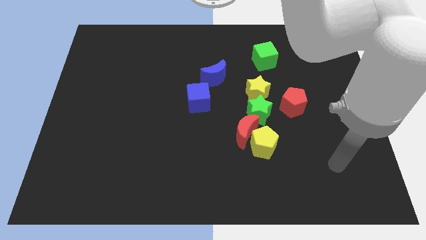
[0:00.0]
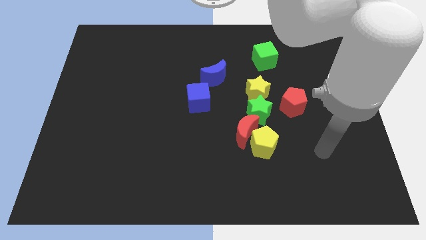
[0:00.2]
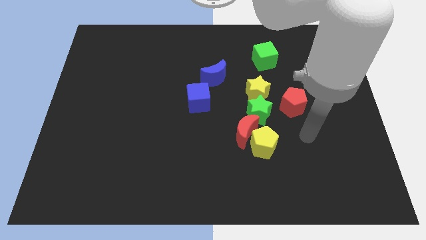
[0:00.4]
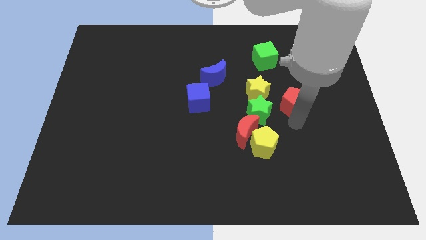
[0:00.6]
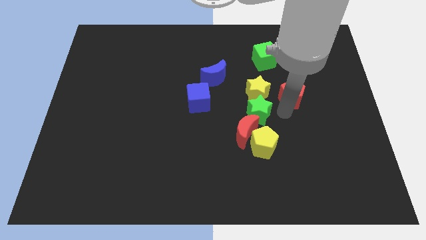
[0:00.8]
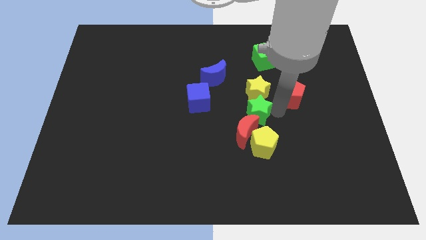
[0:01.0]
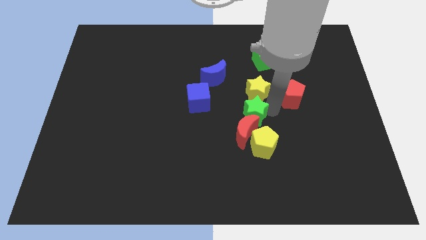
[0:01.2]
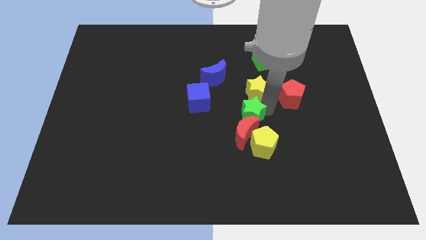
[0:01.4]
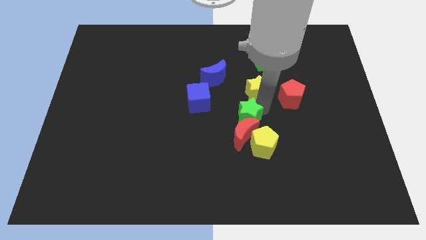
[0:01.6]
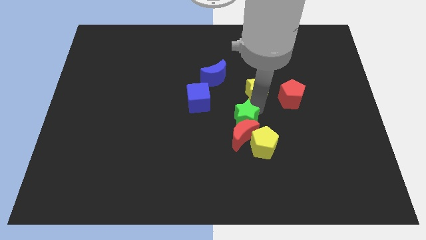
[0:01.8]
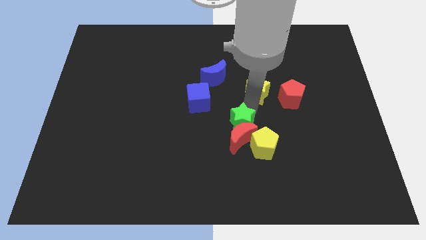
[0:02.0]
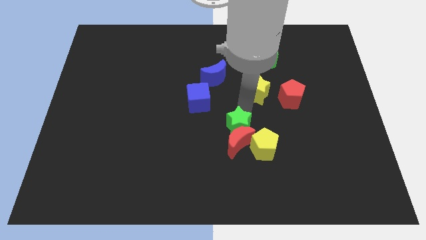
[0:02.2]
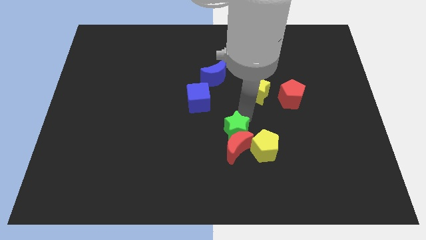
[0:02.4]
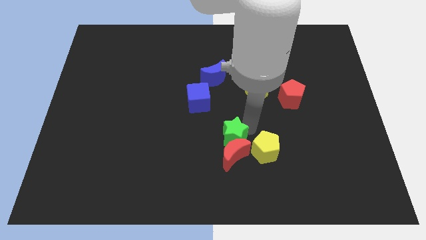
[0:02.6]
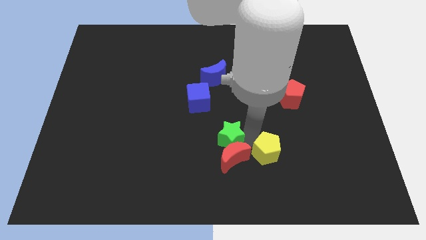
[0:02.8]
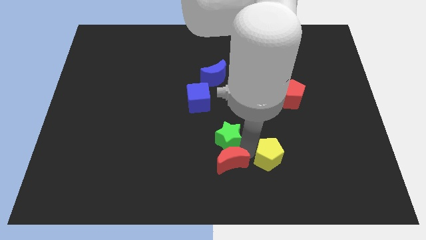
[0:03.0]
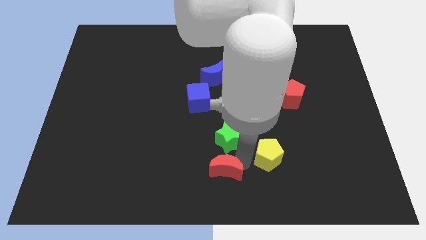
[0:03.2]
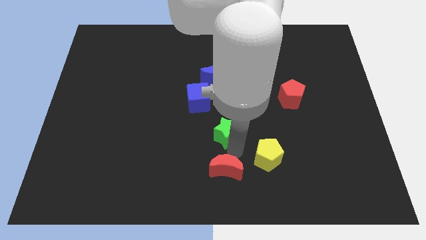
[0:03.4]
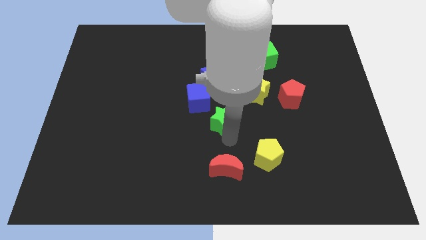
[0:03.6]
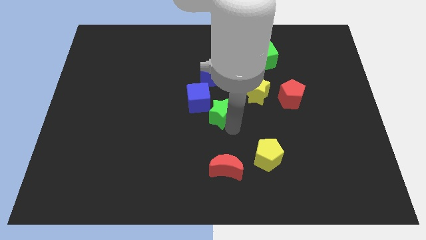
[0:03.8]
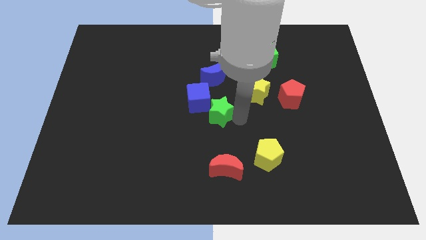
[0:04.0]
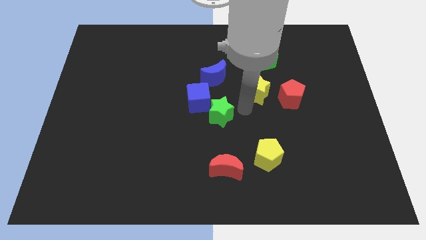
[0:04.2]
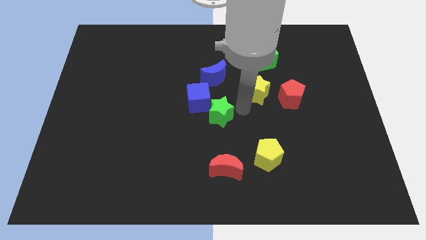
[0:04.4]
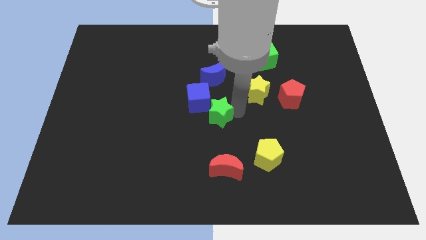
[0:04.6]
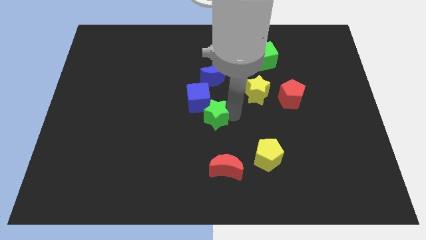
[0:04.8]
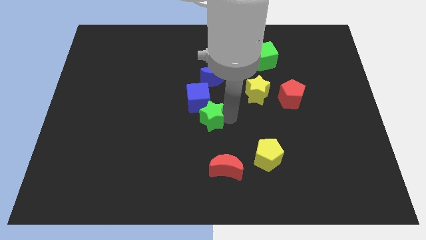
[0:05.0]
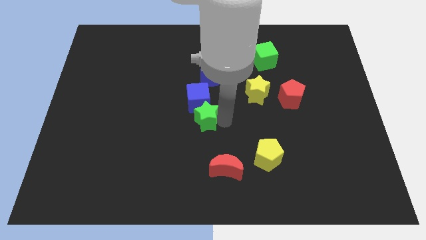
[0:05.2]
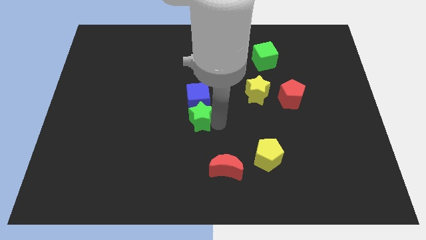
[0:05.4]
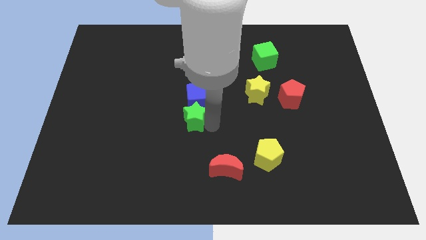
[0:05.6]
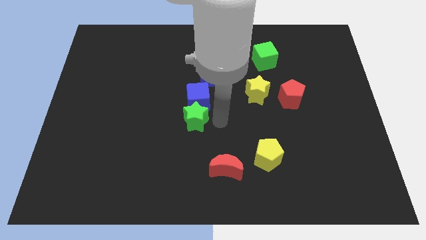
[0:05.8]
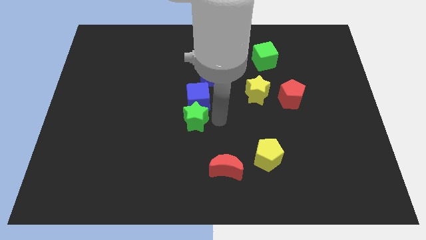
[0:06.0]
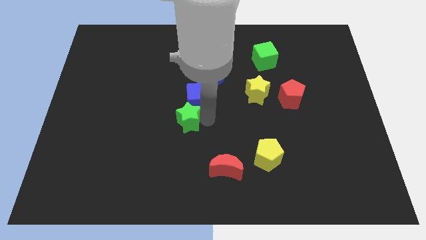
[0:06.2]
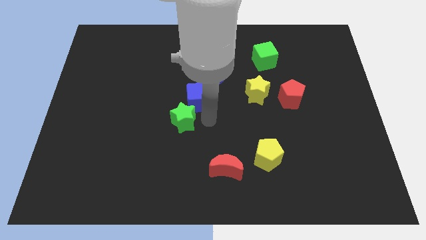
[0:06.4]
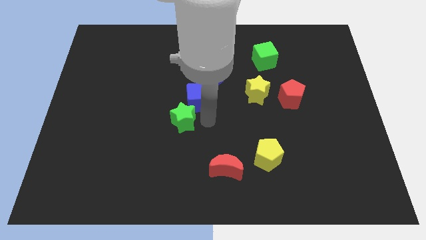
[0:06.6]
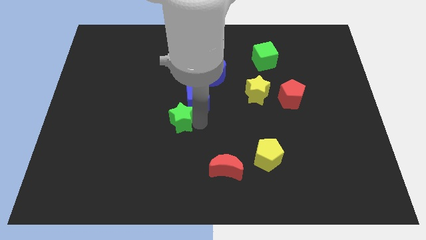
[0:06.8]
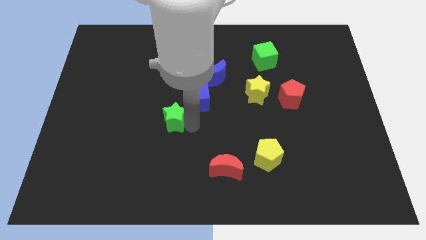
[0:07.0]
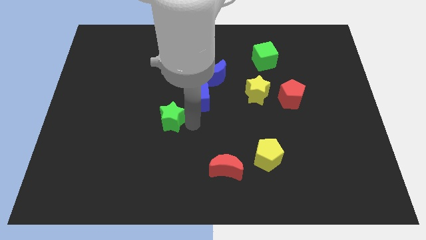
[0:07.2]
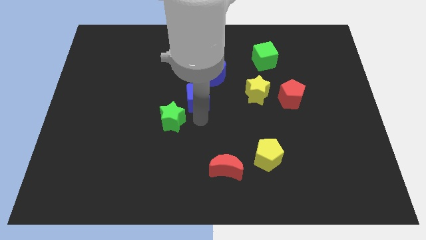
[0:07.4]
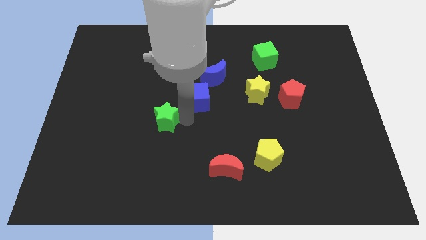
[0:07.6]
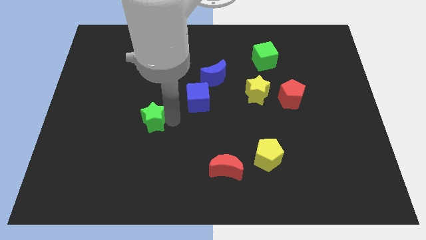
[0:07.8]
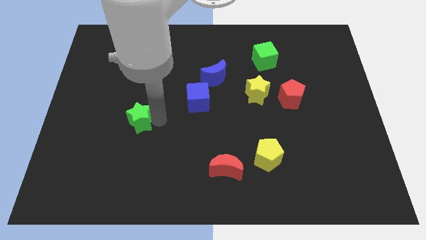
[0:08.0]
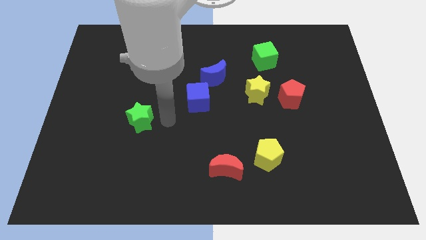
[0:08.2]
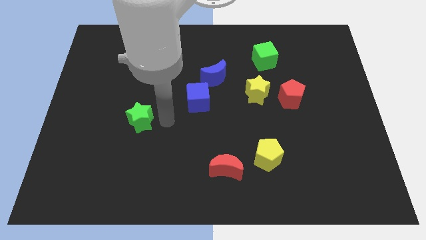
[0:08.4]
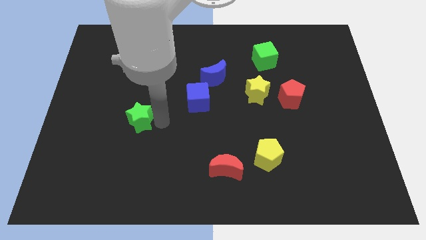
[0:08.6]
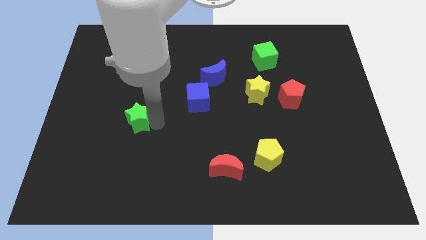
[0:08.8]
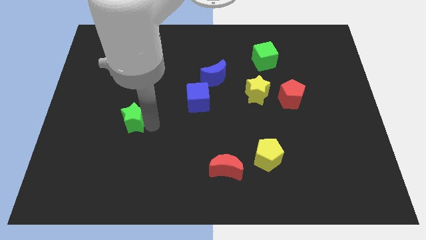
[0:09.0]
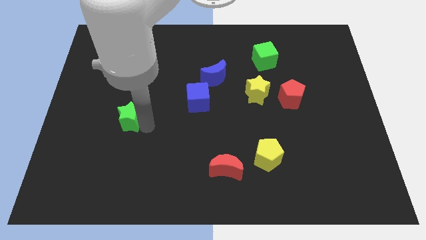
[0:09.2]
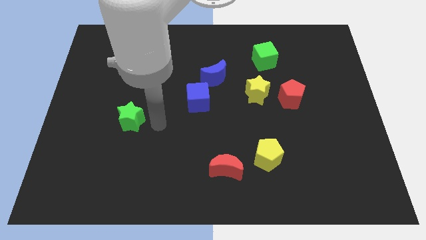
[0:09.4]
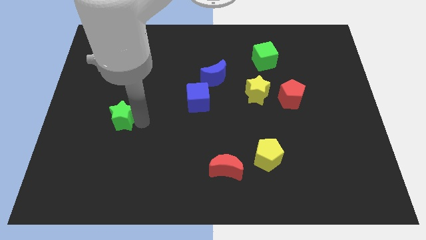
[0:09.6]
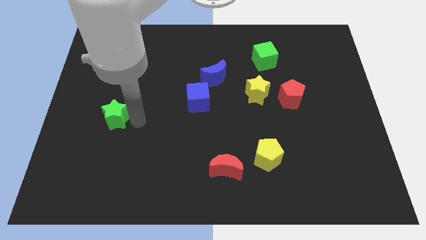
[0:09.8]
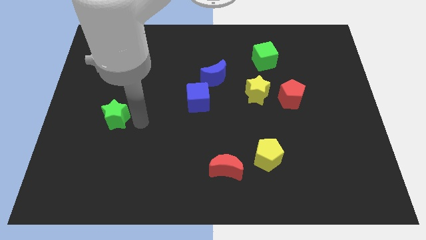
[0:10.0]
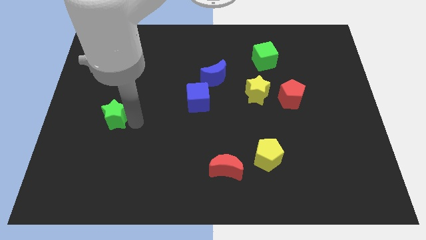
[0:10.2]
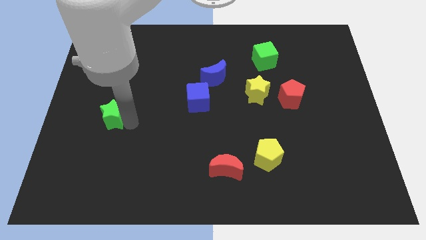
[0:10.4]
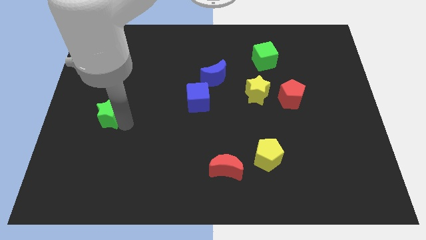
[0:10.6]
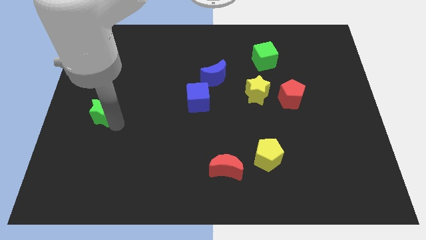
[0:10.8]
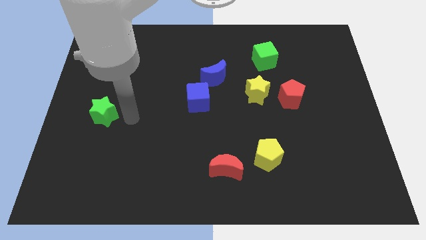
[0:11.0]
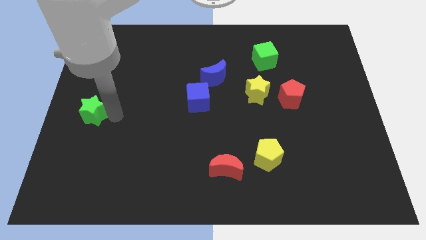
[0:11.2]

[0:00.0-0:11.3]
move the green star to the center left

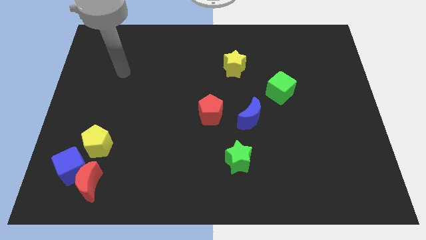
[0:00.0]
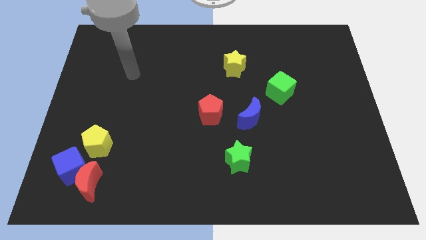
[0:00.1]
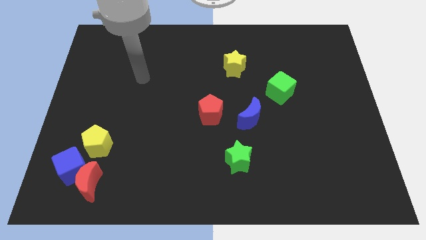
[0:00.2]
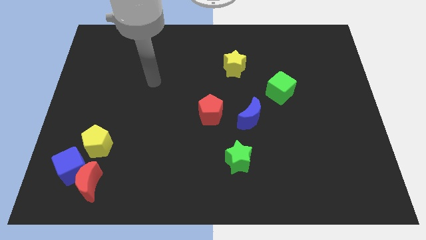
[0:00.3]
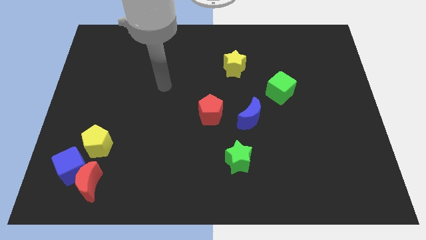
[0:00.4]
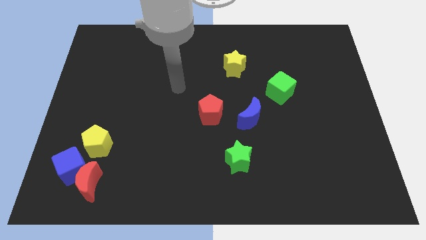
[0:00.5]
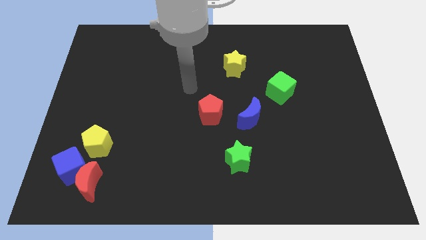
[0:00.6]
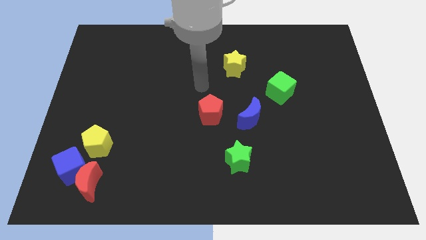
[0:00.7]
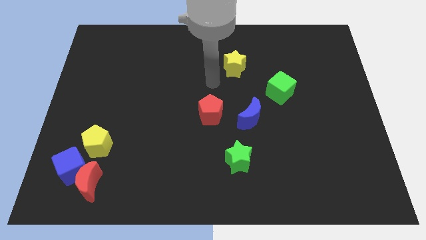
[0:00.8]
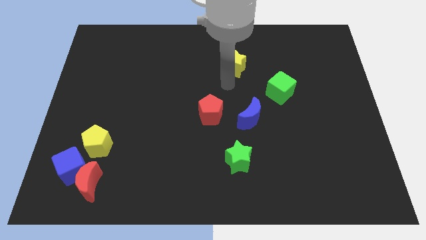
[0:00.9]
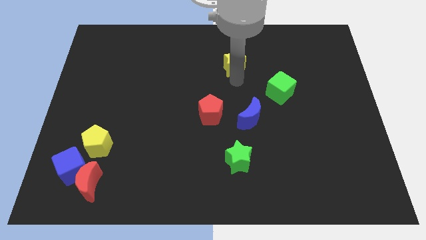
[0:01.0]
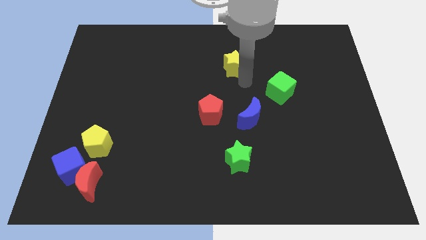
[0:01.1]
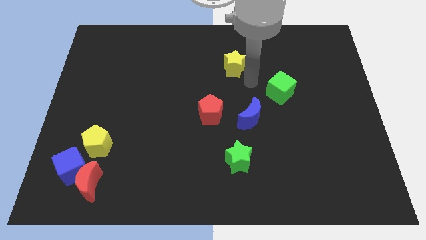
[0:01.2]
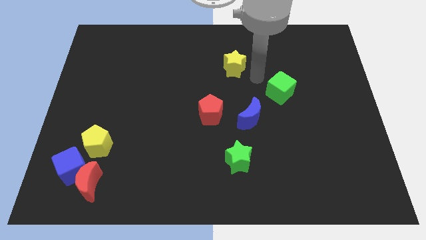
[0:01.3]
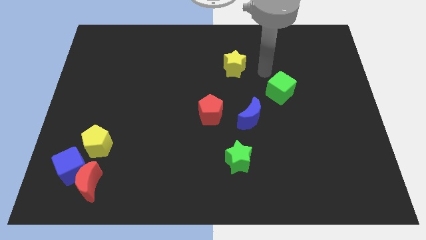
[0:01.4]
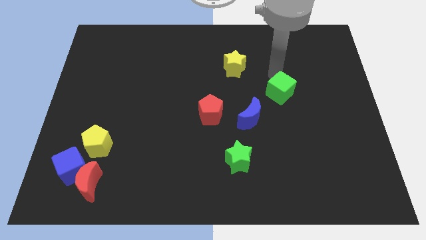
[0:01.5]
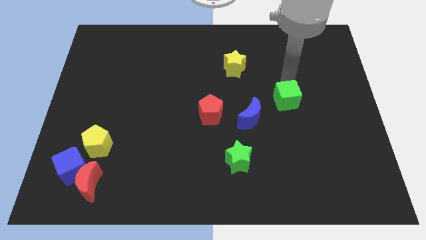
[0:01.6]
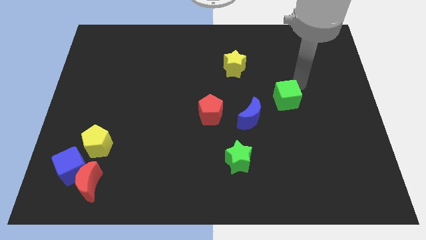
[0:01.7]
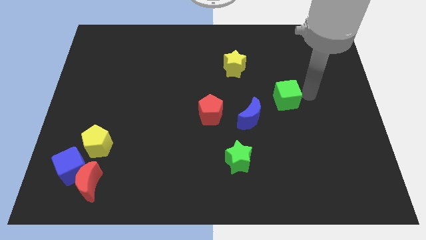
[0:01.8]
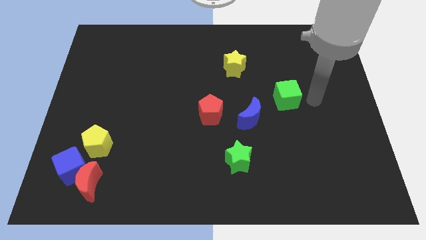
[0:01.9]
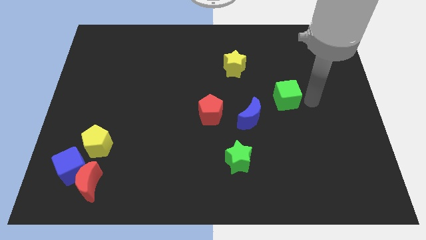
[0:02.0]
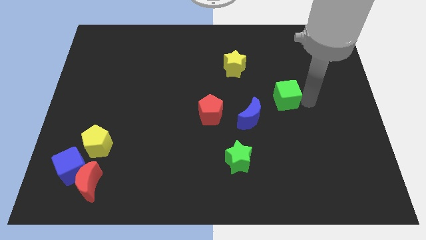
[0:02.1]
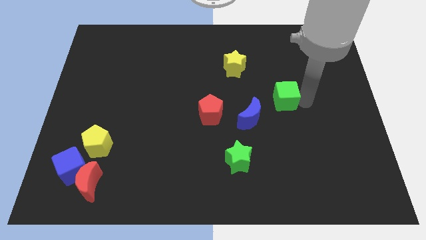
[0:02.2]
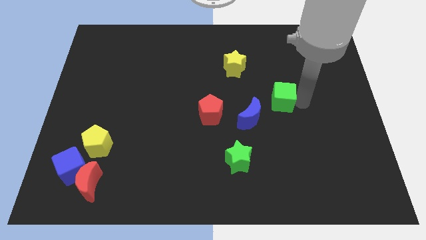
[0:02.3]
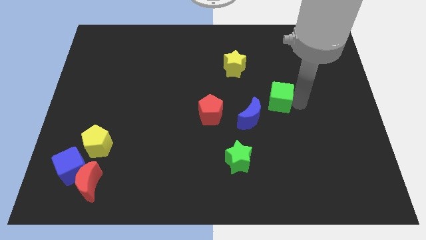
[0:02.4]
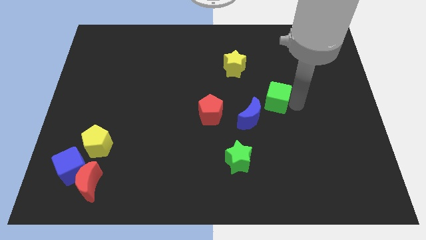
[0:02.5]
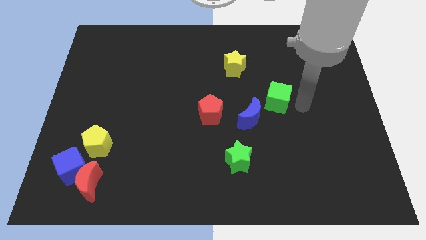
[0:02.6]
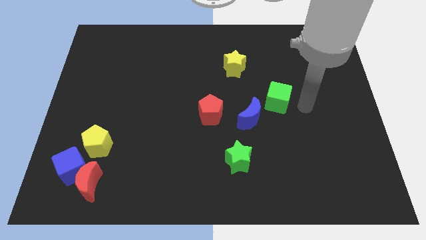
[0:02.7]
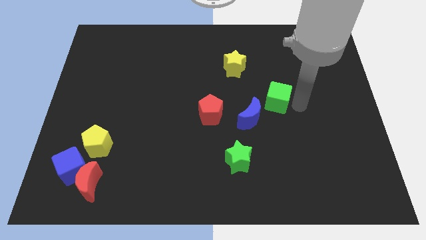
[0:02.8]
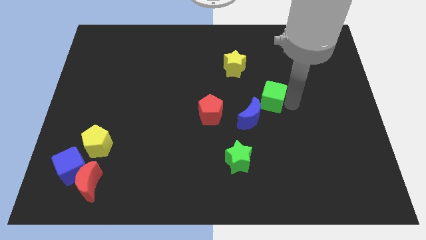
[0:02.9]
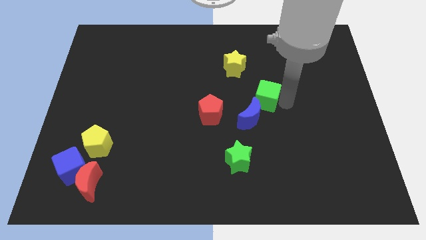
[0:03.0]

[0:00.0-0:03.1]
slide the green cube to the middle of the board
